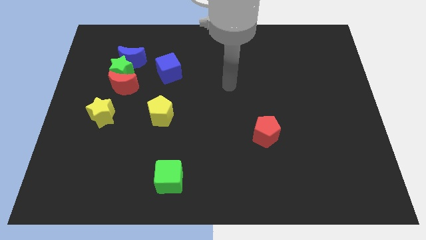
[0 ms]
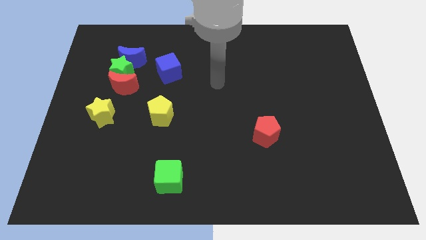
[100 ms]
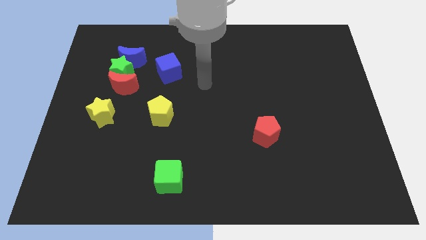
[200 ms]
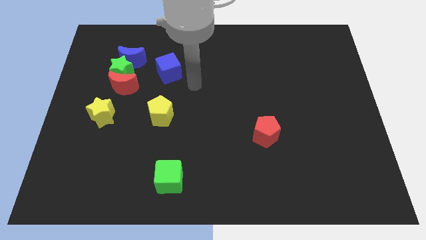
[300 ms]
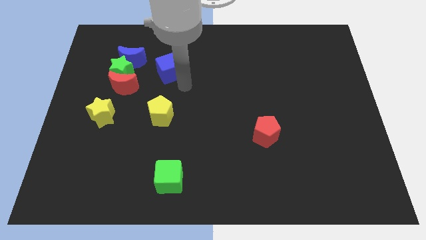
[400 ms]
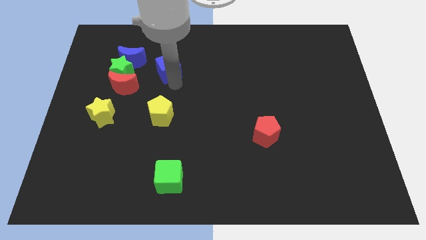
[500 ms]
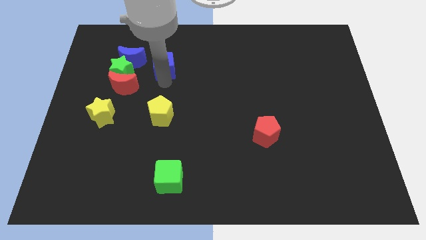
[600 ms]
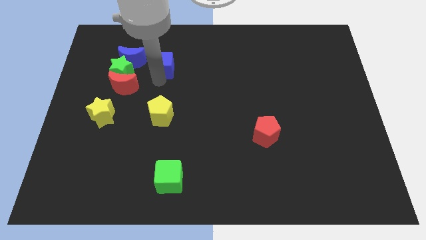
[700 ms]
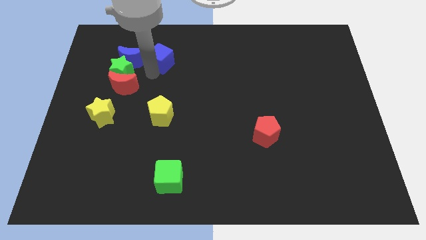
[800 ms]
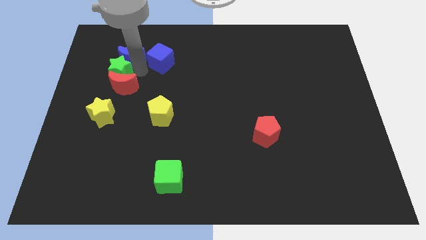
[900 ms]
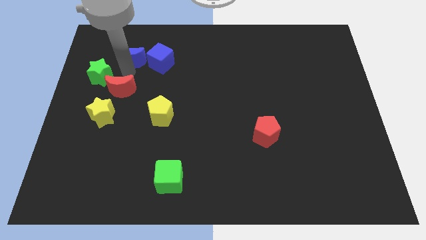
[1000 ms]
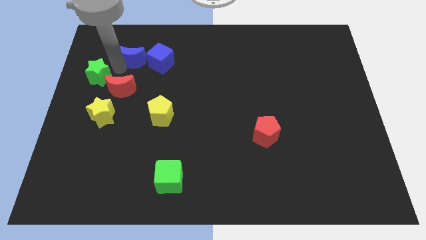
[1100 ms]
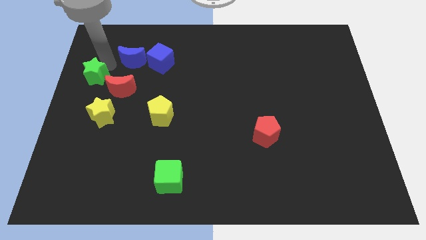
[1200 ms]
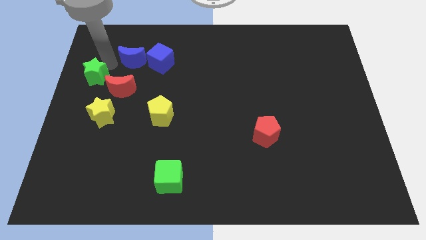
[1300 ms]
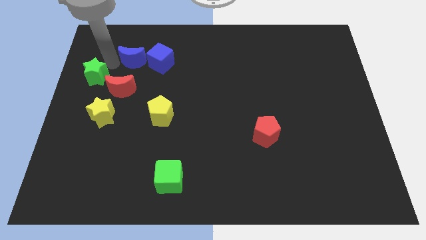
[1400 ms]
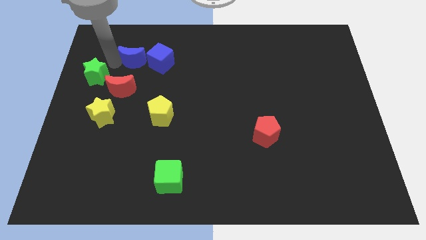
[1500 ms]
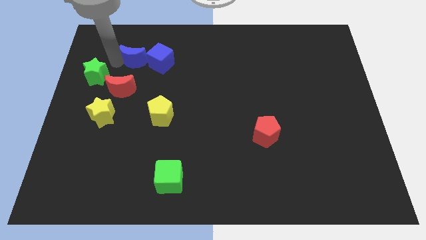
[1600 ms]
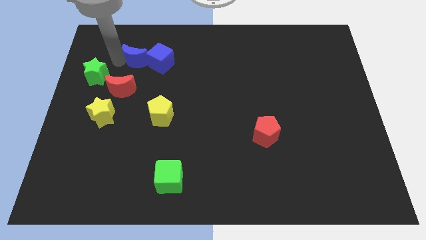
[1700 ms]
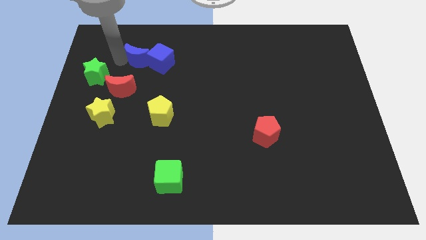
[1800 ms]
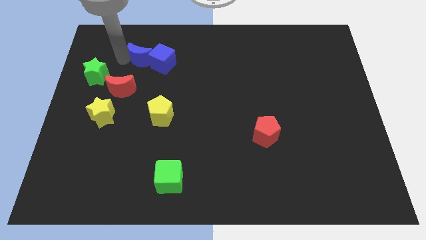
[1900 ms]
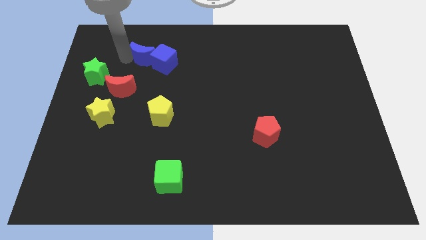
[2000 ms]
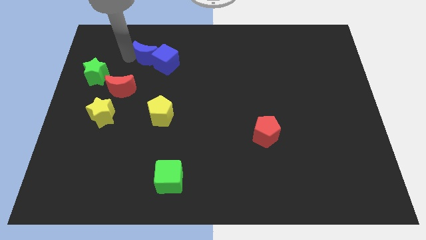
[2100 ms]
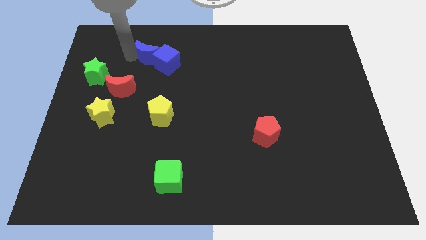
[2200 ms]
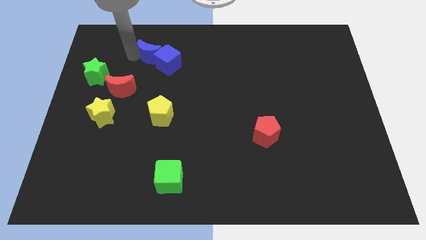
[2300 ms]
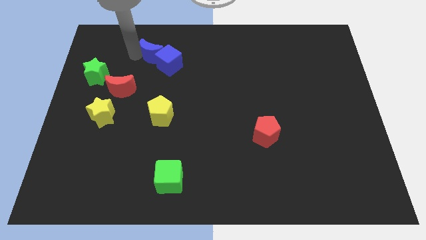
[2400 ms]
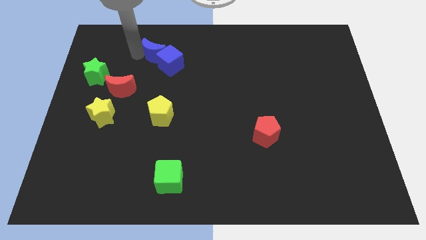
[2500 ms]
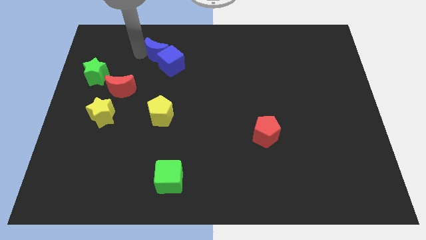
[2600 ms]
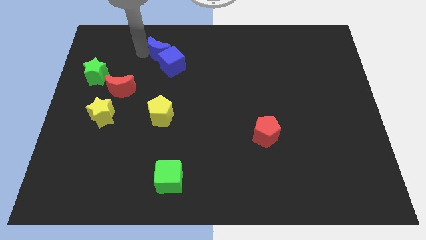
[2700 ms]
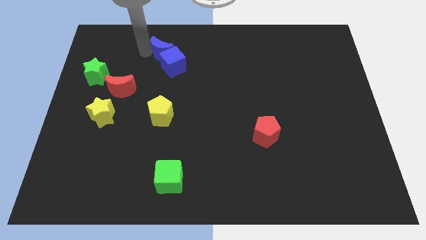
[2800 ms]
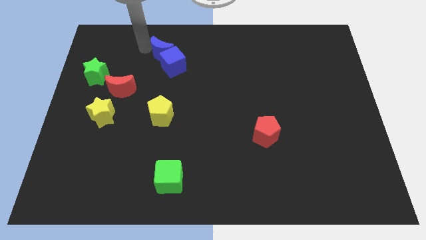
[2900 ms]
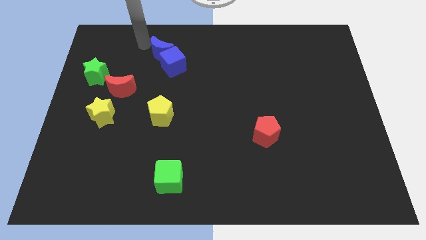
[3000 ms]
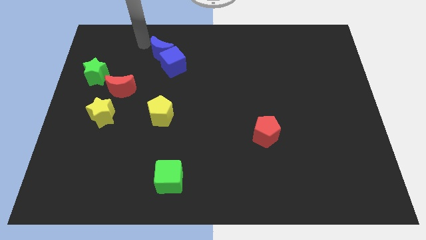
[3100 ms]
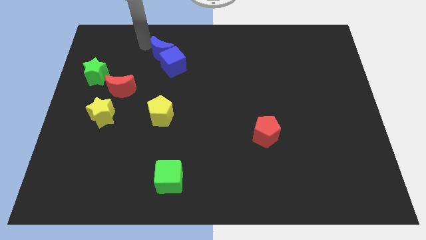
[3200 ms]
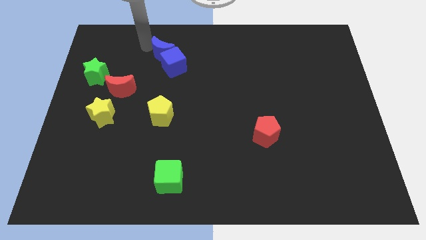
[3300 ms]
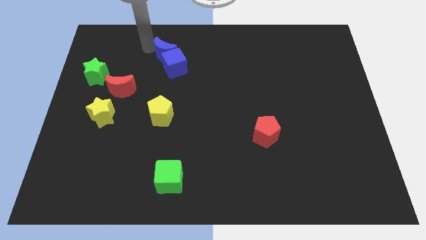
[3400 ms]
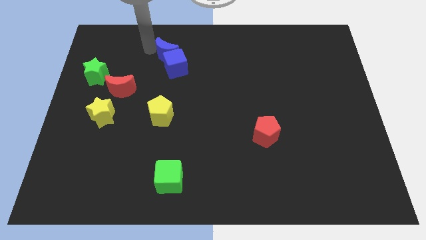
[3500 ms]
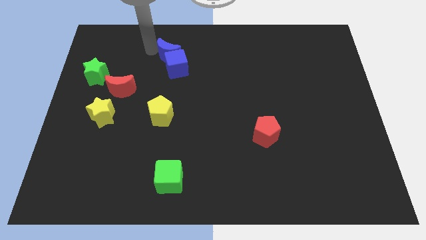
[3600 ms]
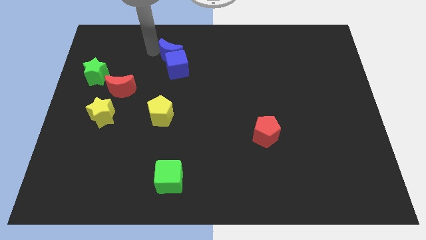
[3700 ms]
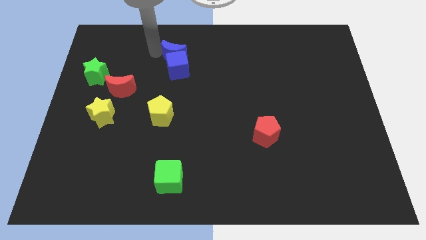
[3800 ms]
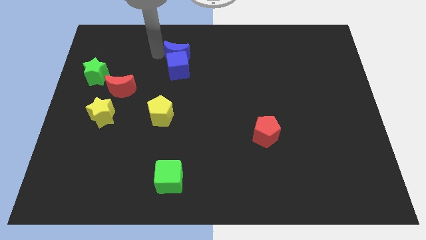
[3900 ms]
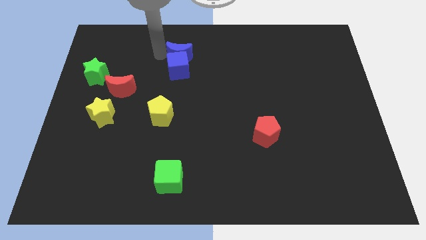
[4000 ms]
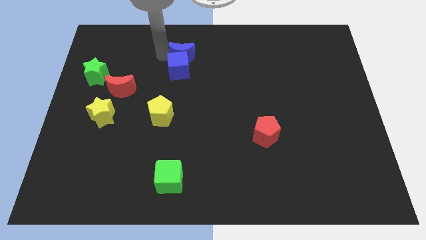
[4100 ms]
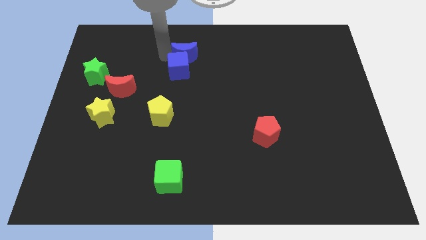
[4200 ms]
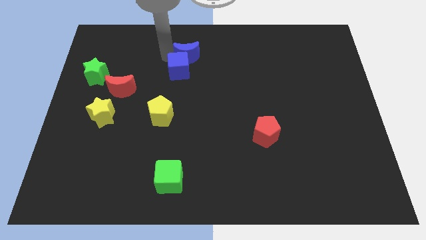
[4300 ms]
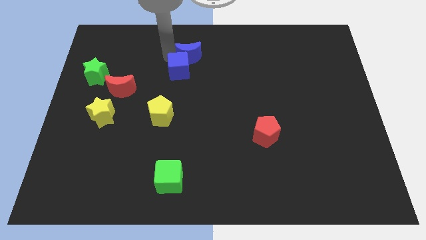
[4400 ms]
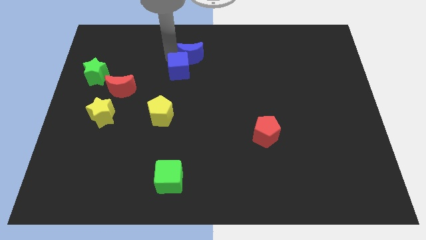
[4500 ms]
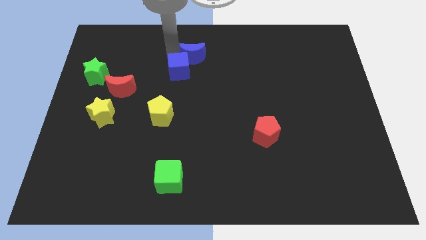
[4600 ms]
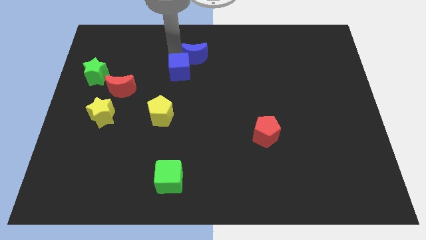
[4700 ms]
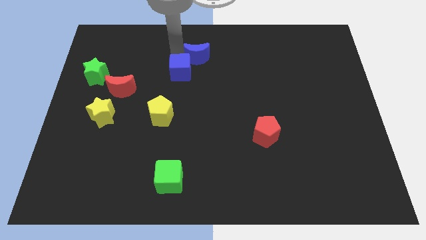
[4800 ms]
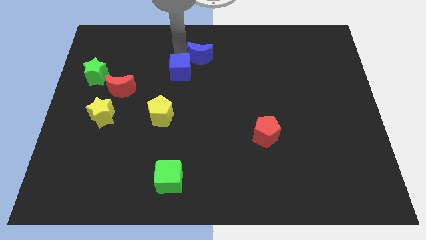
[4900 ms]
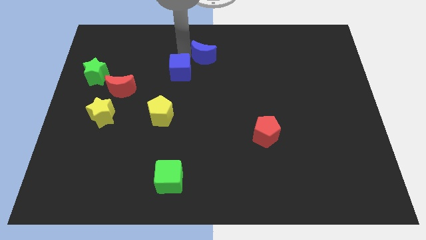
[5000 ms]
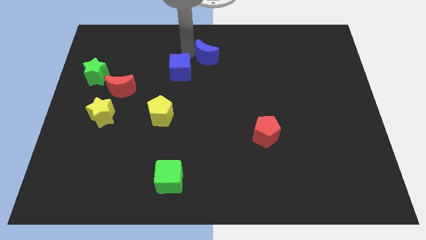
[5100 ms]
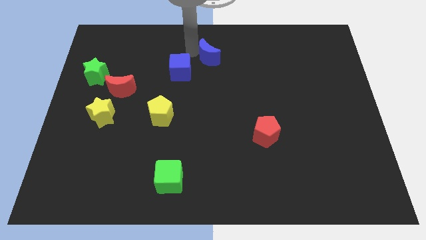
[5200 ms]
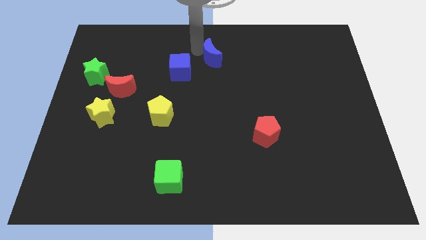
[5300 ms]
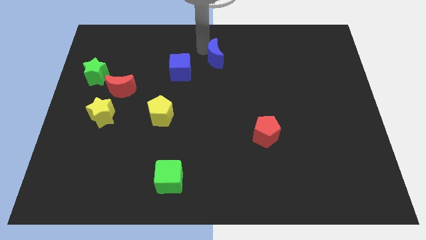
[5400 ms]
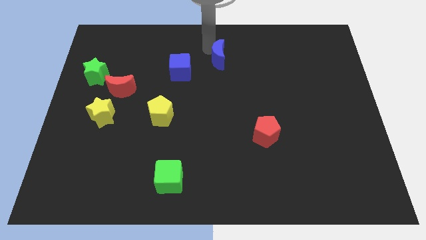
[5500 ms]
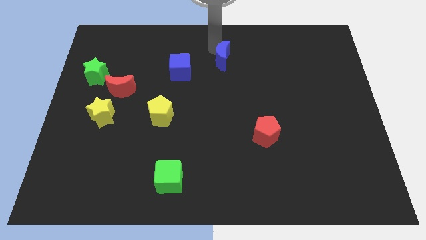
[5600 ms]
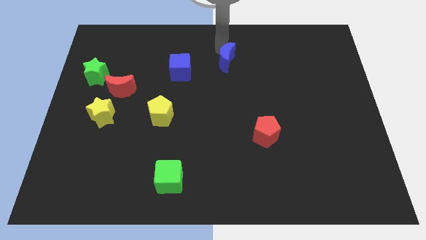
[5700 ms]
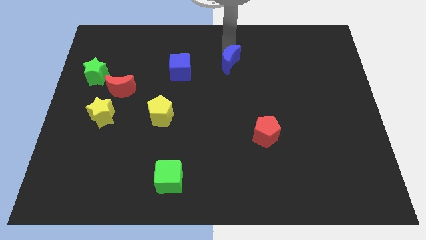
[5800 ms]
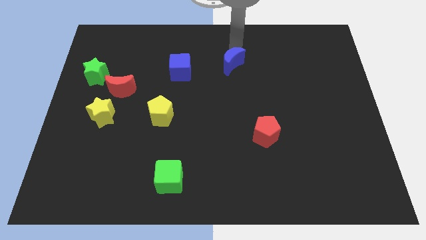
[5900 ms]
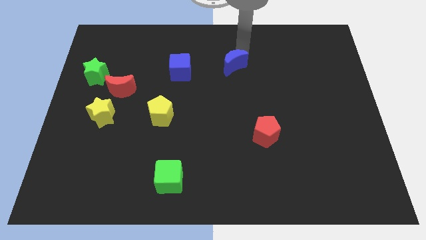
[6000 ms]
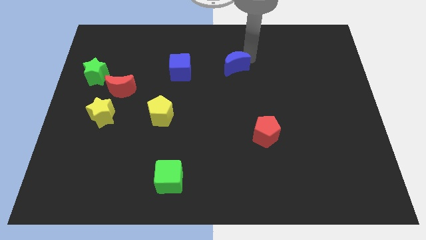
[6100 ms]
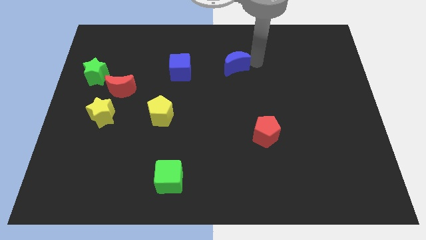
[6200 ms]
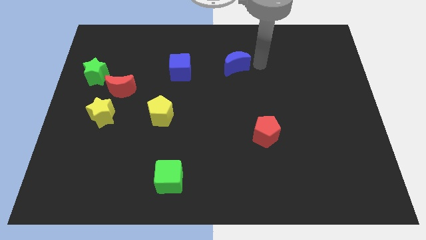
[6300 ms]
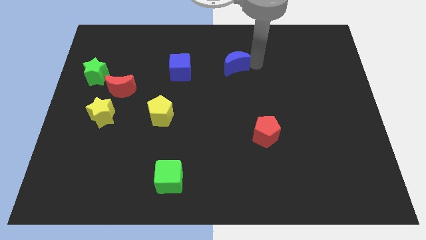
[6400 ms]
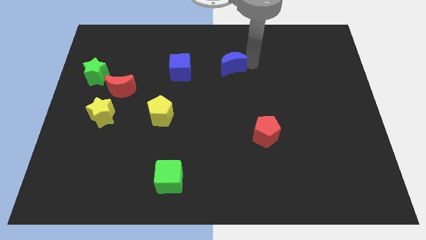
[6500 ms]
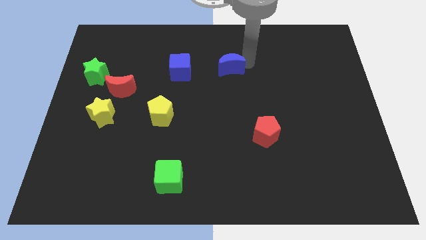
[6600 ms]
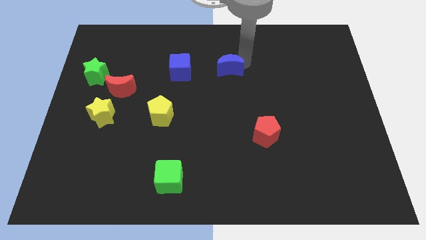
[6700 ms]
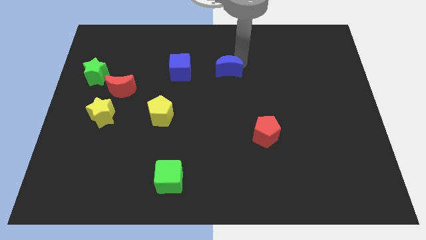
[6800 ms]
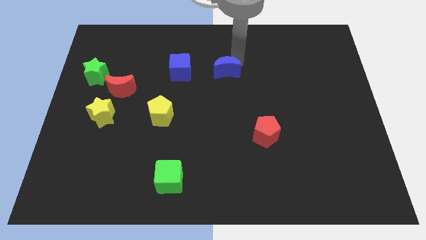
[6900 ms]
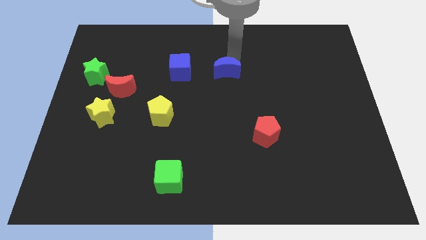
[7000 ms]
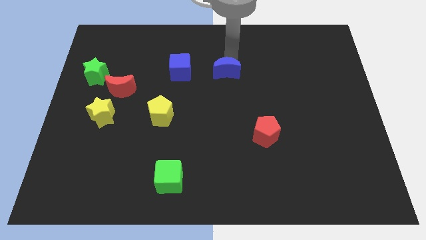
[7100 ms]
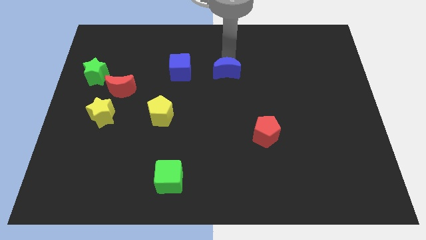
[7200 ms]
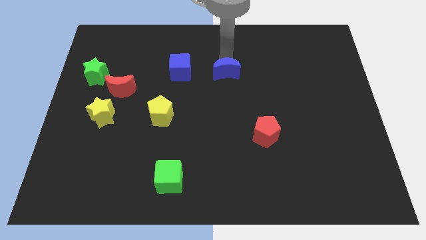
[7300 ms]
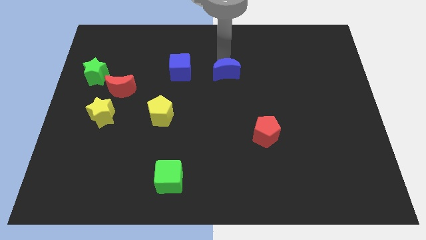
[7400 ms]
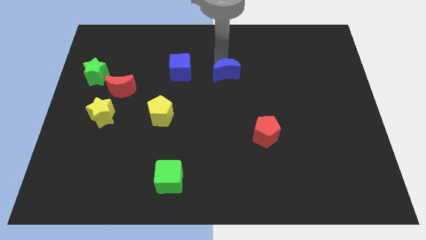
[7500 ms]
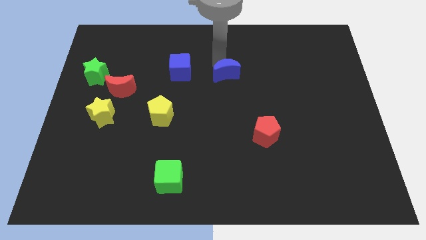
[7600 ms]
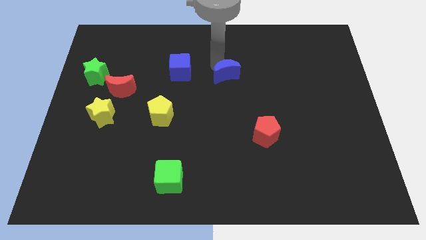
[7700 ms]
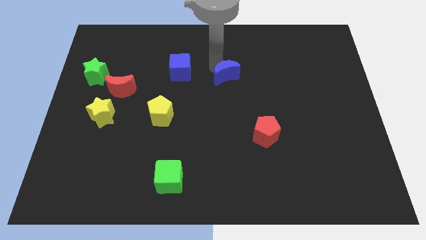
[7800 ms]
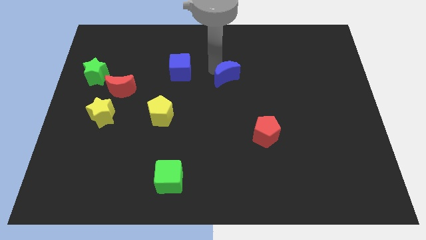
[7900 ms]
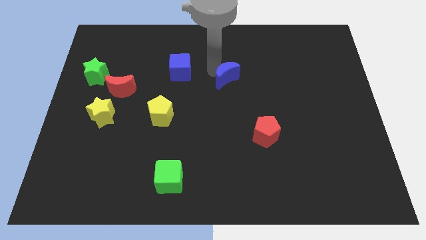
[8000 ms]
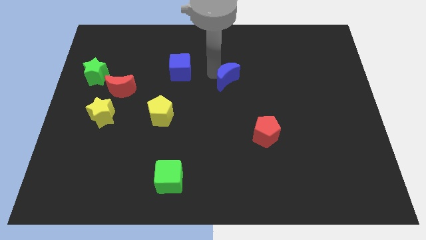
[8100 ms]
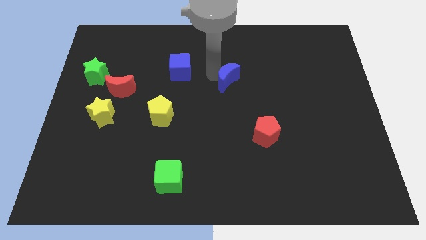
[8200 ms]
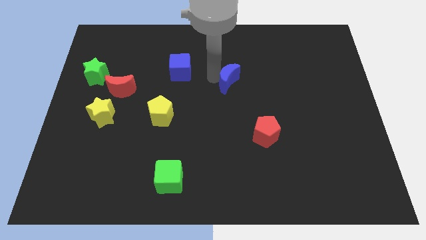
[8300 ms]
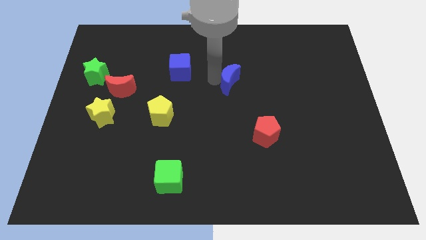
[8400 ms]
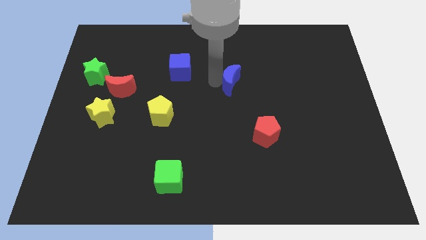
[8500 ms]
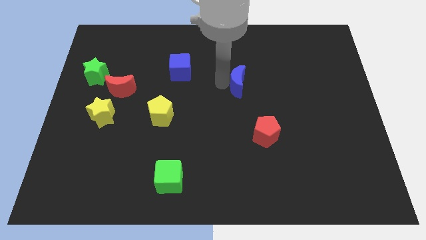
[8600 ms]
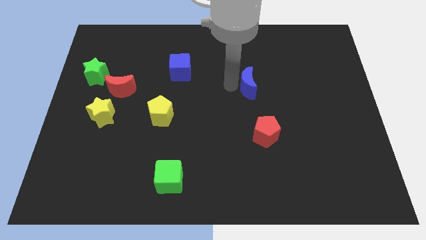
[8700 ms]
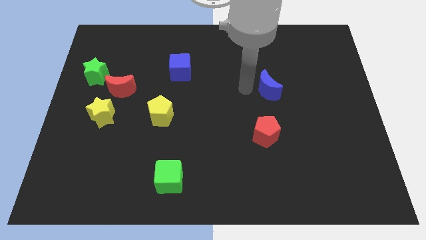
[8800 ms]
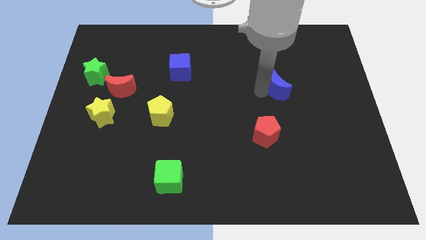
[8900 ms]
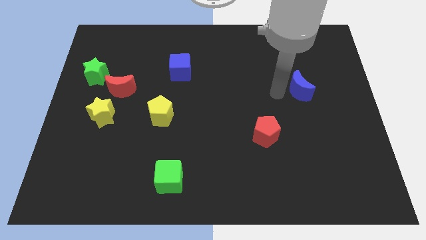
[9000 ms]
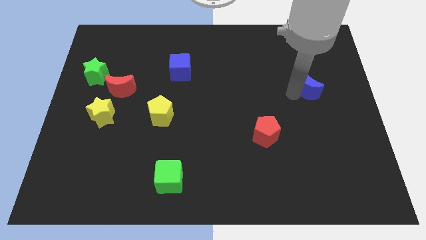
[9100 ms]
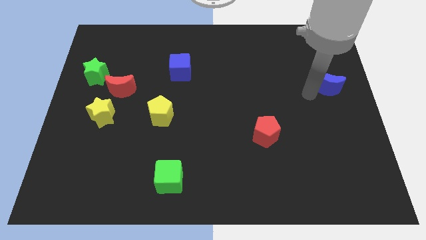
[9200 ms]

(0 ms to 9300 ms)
push the blue moon to the center right
